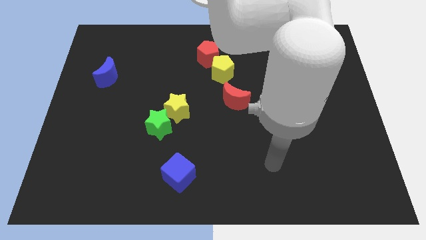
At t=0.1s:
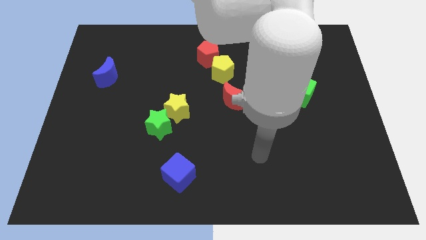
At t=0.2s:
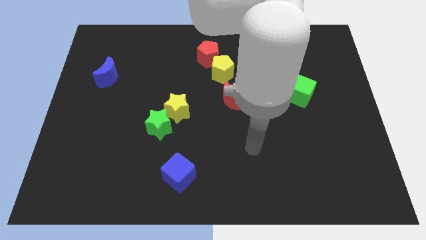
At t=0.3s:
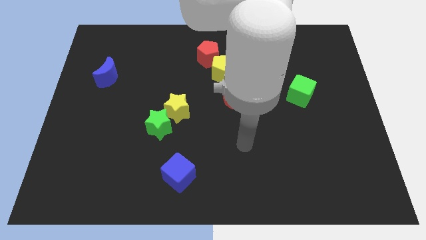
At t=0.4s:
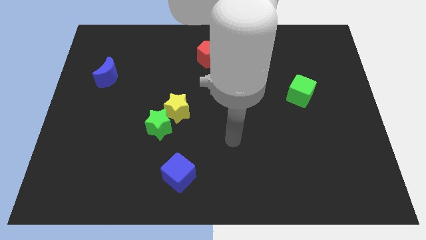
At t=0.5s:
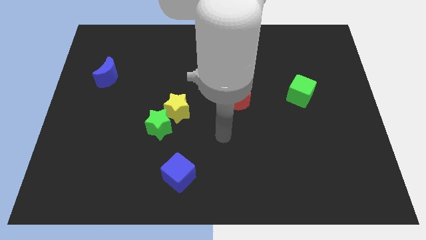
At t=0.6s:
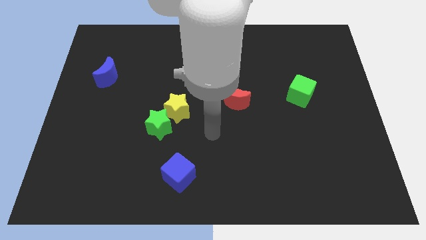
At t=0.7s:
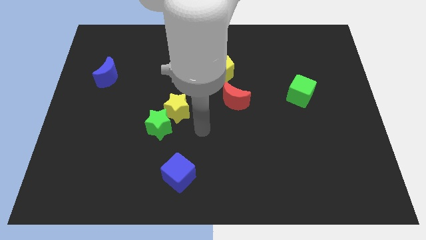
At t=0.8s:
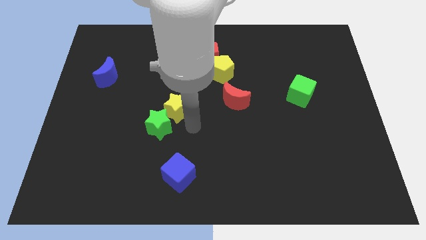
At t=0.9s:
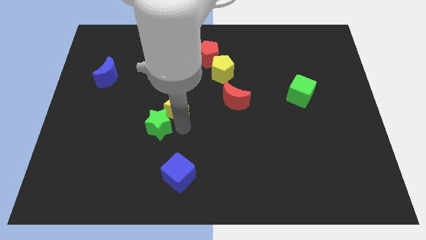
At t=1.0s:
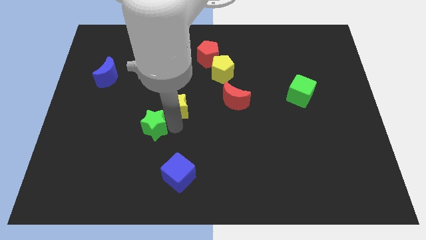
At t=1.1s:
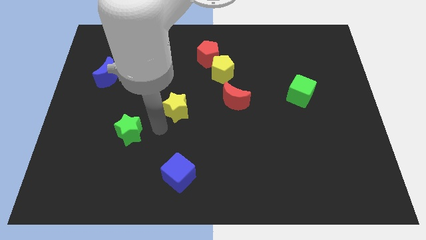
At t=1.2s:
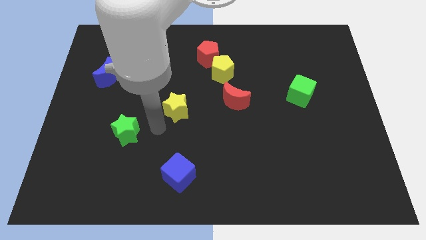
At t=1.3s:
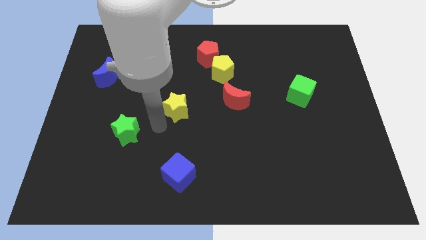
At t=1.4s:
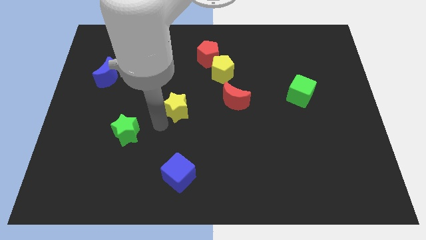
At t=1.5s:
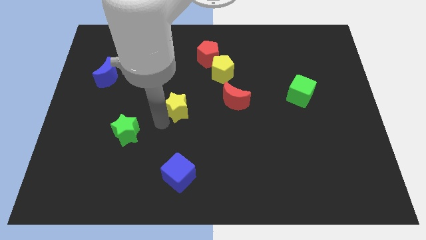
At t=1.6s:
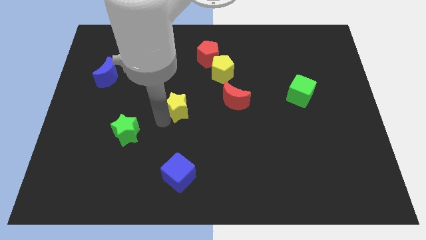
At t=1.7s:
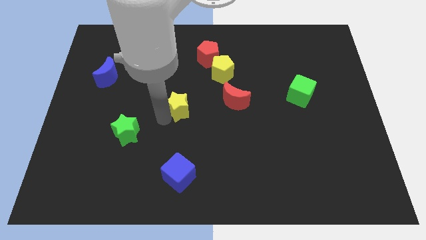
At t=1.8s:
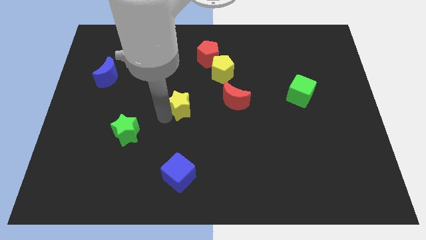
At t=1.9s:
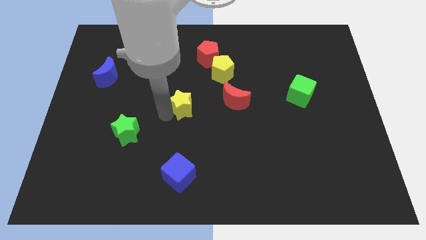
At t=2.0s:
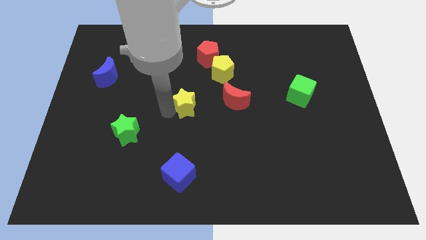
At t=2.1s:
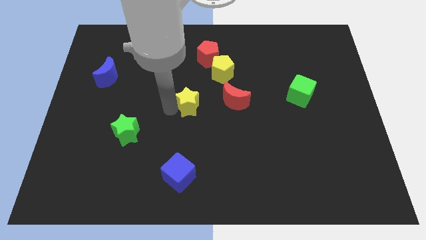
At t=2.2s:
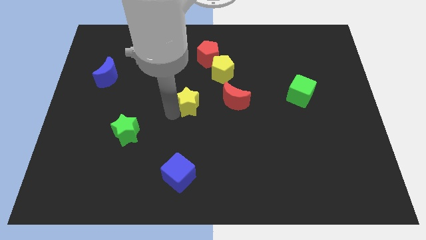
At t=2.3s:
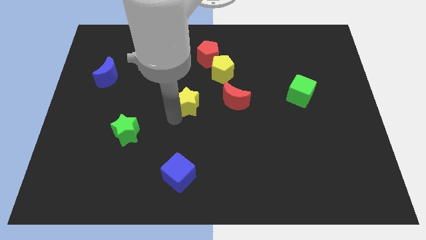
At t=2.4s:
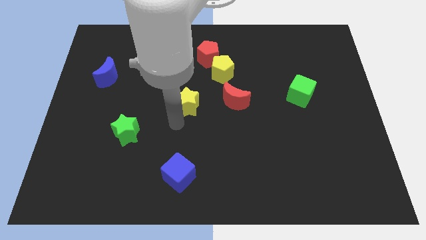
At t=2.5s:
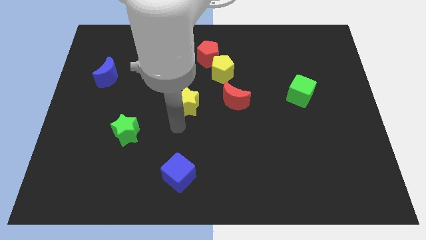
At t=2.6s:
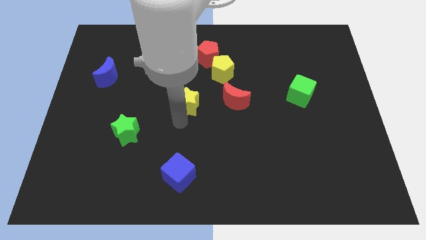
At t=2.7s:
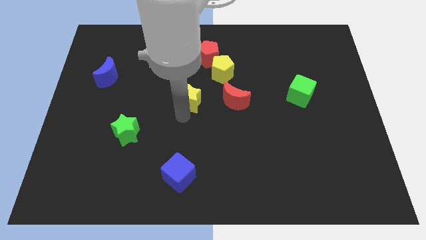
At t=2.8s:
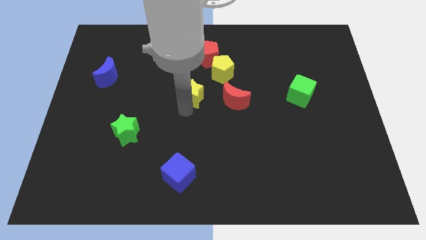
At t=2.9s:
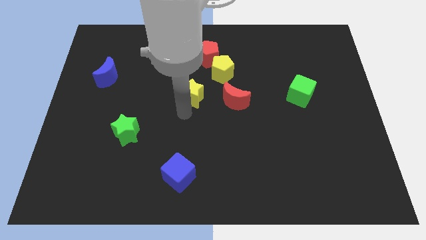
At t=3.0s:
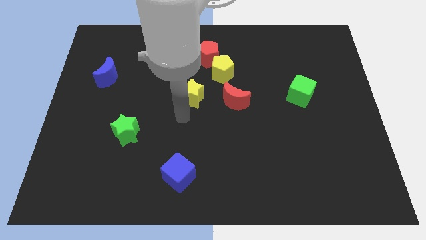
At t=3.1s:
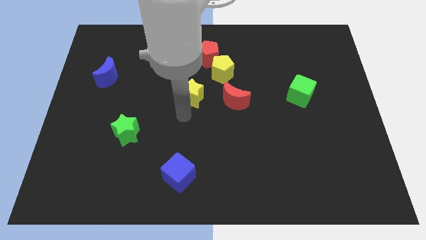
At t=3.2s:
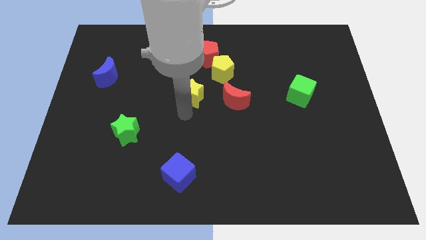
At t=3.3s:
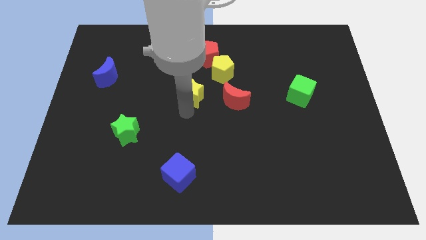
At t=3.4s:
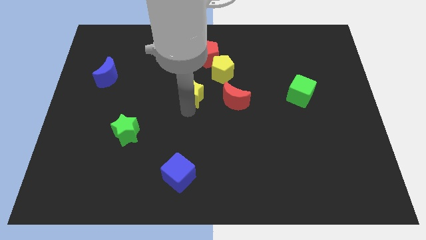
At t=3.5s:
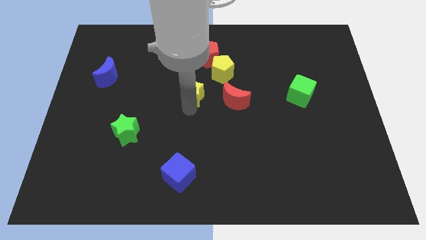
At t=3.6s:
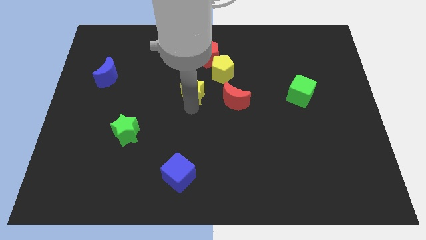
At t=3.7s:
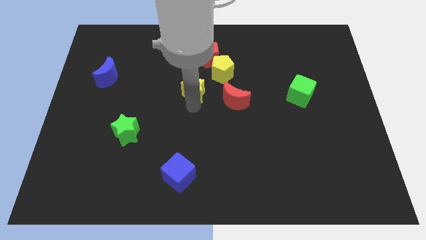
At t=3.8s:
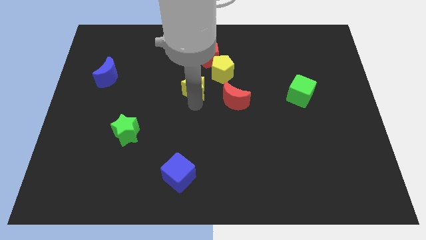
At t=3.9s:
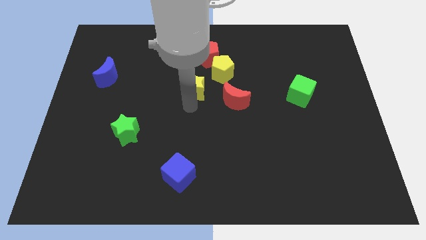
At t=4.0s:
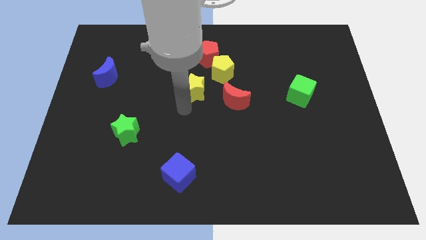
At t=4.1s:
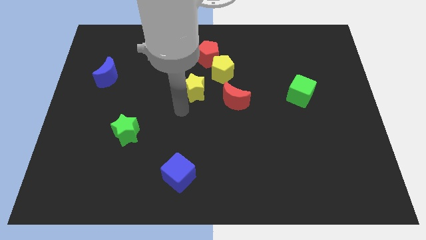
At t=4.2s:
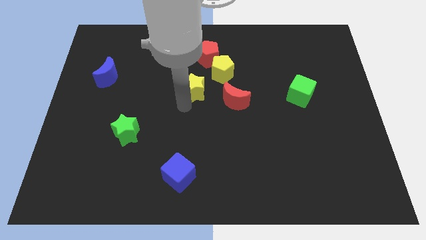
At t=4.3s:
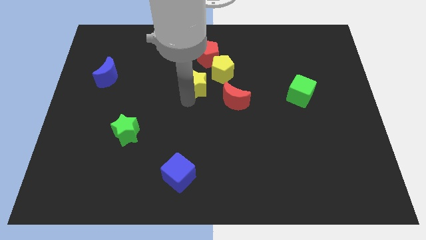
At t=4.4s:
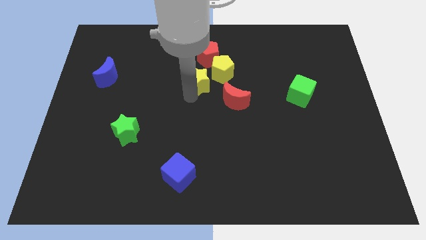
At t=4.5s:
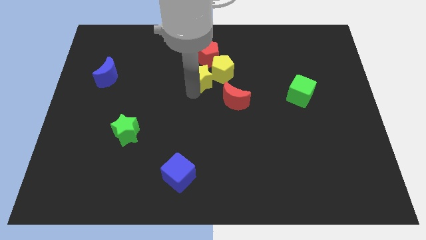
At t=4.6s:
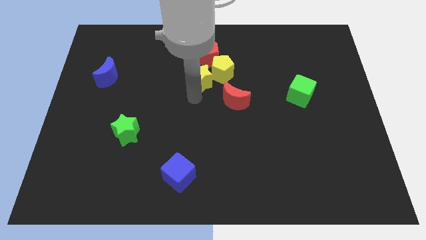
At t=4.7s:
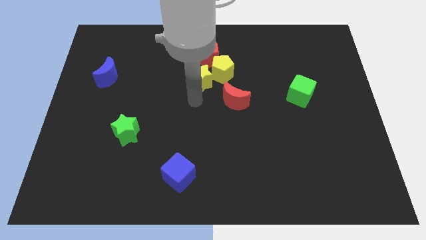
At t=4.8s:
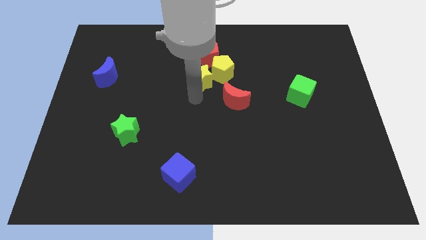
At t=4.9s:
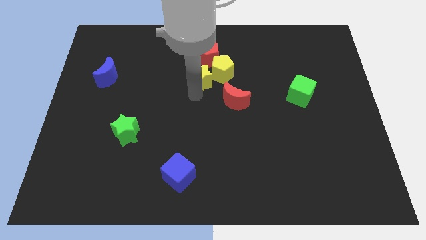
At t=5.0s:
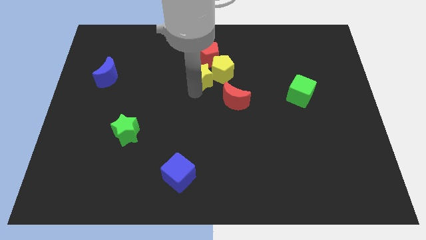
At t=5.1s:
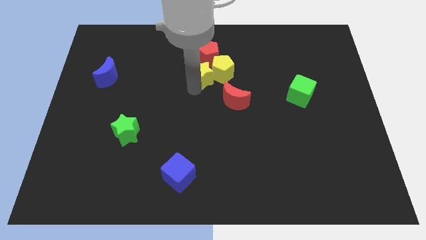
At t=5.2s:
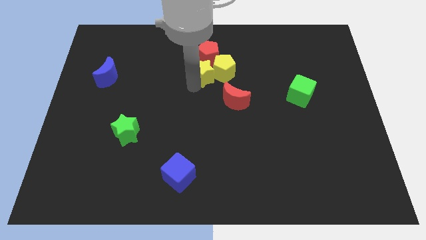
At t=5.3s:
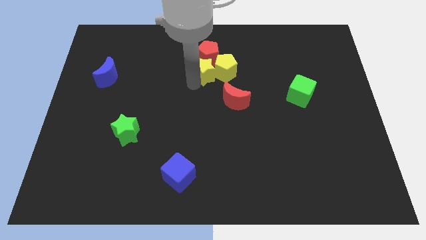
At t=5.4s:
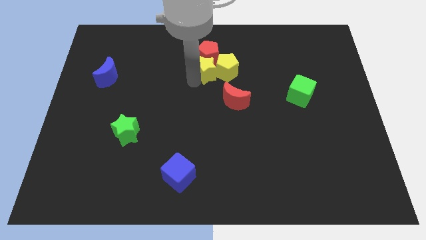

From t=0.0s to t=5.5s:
put the yellow star to the red pentagon

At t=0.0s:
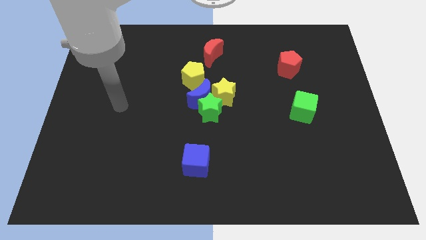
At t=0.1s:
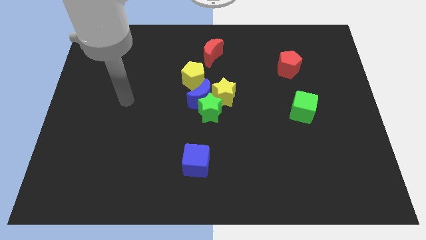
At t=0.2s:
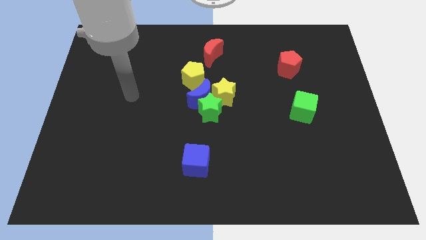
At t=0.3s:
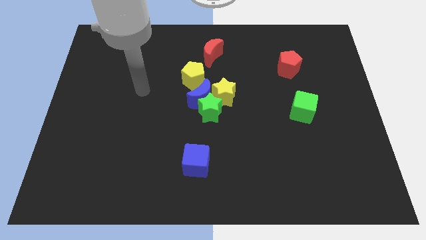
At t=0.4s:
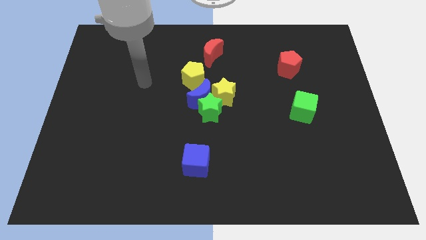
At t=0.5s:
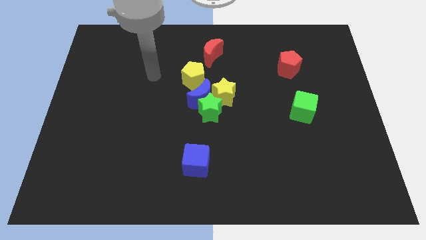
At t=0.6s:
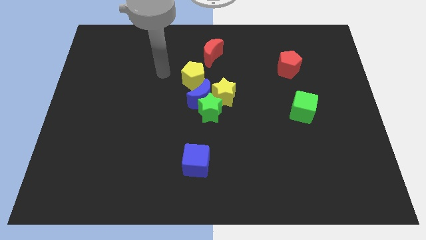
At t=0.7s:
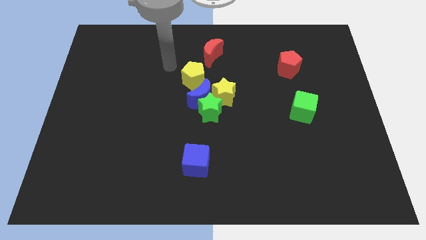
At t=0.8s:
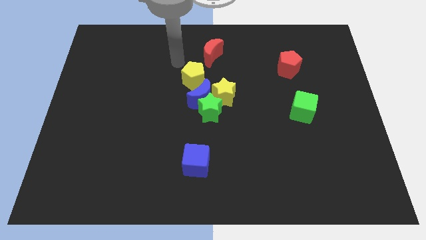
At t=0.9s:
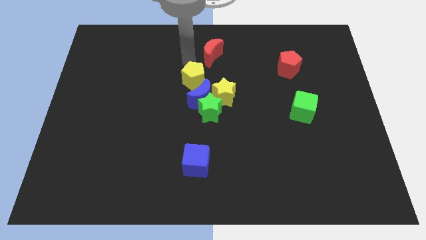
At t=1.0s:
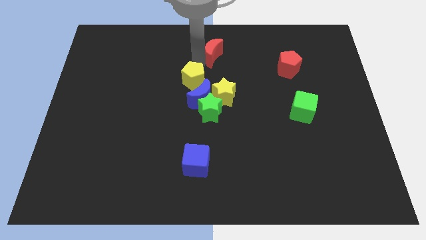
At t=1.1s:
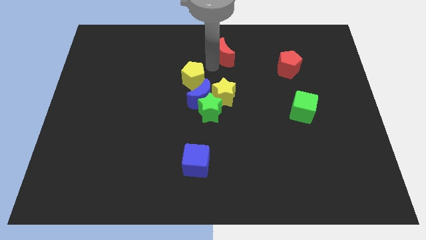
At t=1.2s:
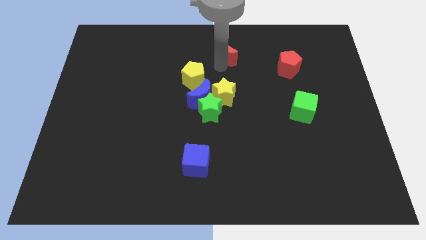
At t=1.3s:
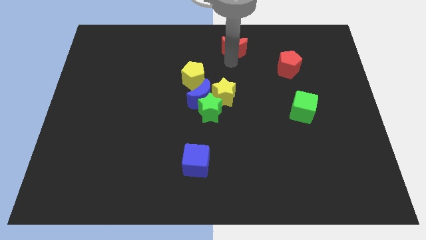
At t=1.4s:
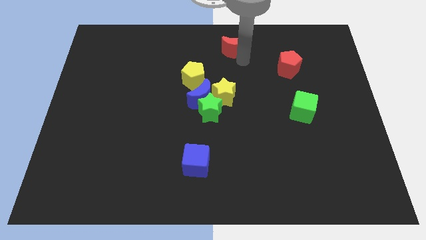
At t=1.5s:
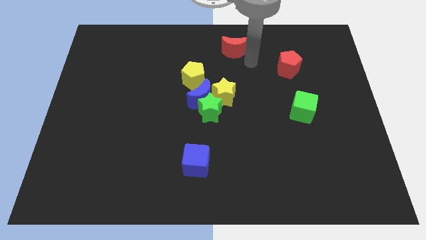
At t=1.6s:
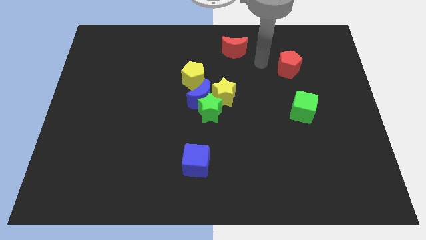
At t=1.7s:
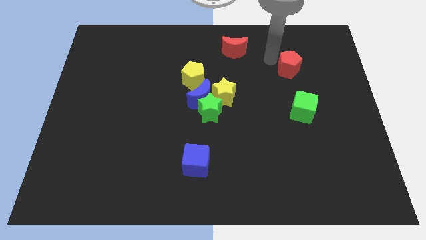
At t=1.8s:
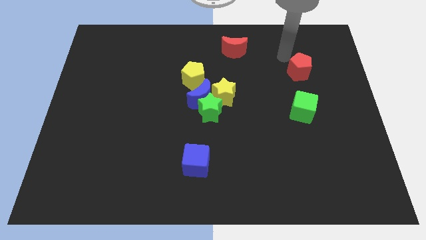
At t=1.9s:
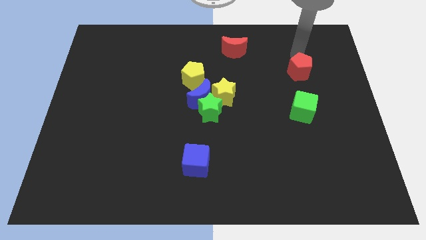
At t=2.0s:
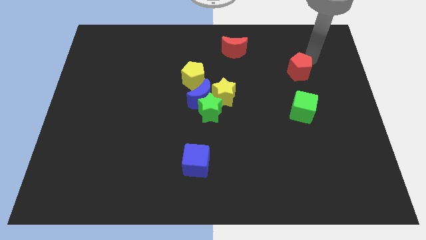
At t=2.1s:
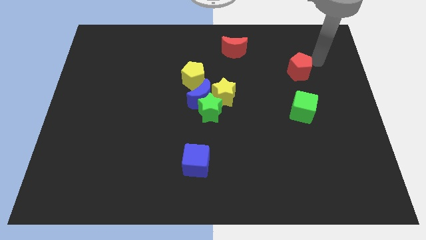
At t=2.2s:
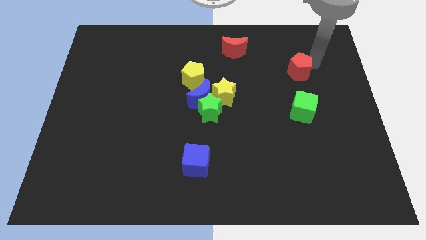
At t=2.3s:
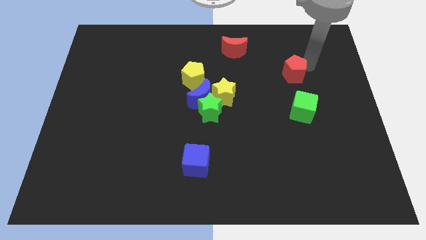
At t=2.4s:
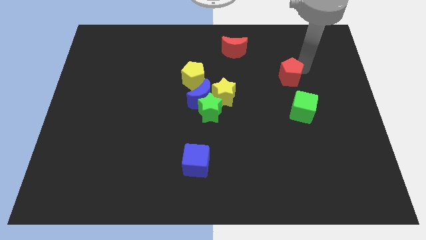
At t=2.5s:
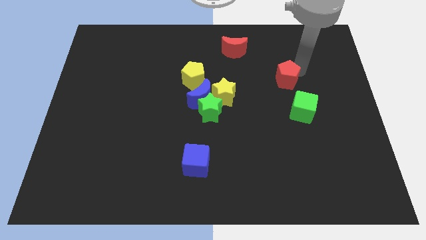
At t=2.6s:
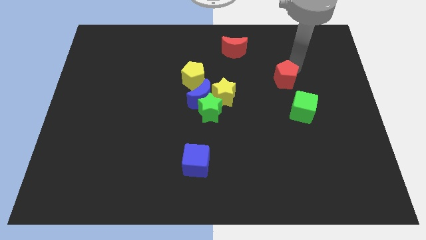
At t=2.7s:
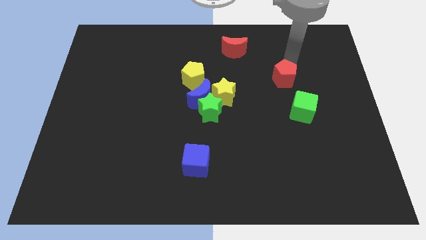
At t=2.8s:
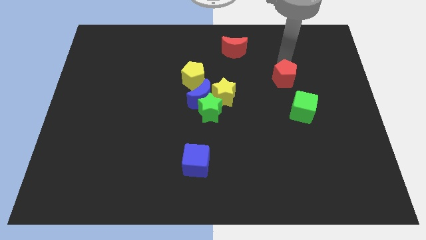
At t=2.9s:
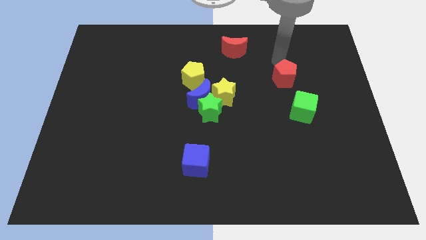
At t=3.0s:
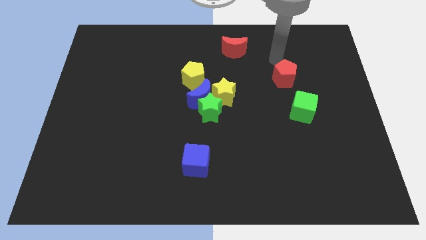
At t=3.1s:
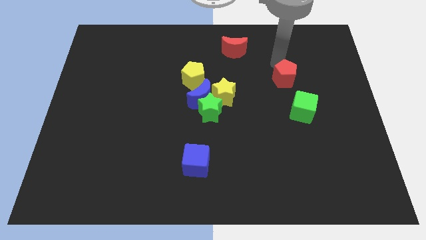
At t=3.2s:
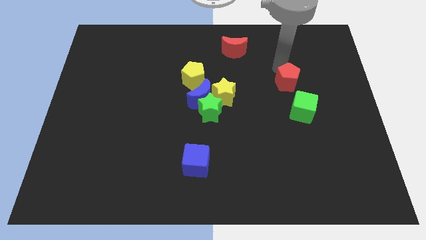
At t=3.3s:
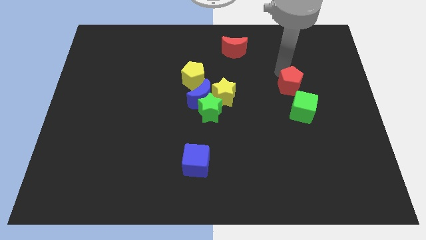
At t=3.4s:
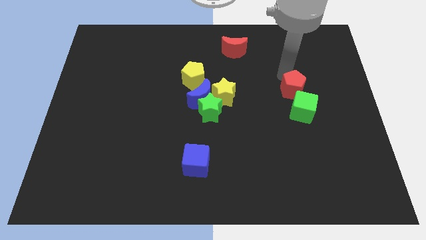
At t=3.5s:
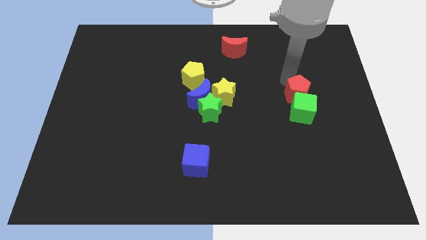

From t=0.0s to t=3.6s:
put the red pentagon close to the green cube
